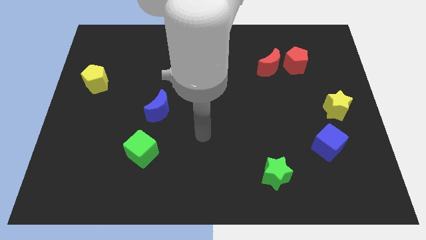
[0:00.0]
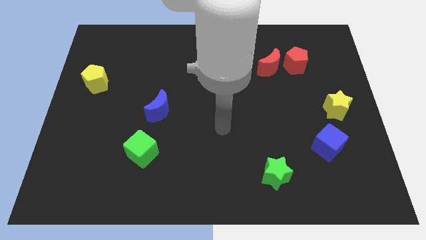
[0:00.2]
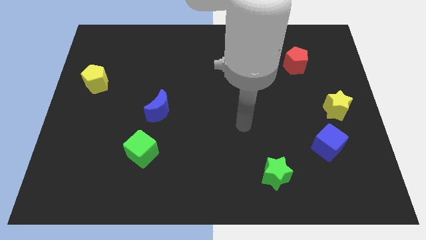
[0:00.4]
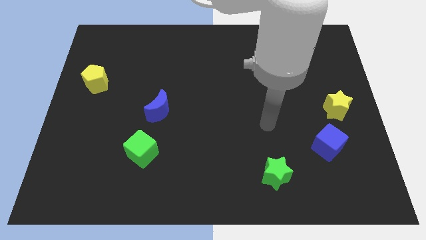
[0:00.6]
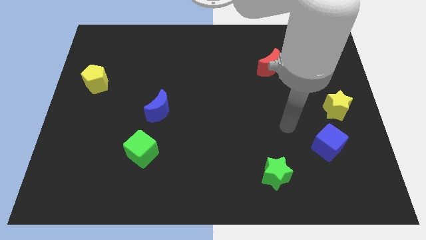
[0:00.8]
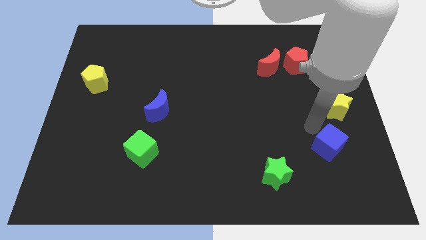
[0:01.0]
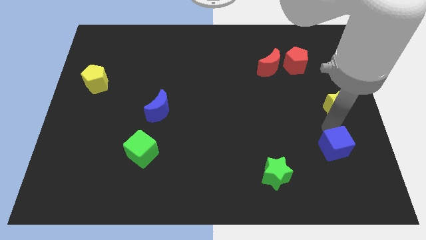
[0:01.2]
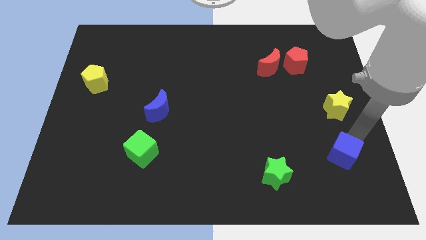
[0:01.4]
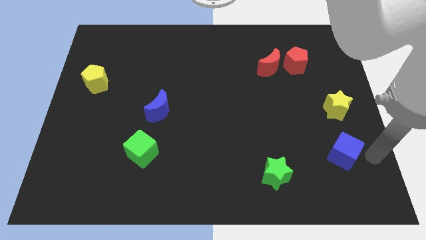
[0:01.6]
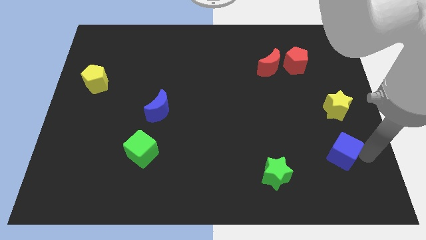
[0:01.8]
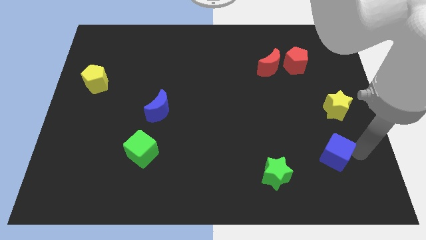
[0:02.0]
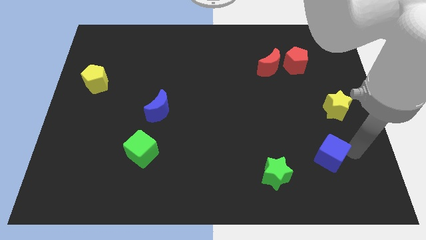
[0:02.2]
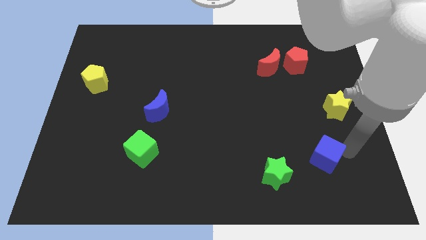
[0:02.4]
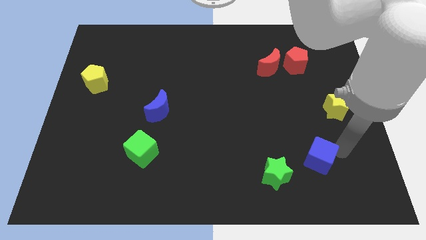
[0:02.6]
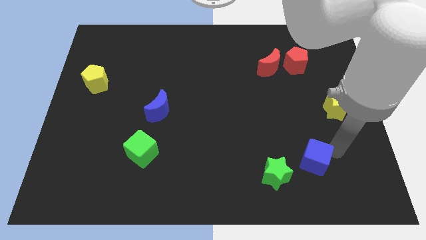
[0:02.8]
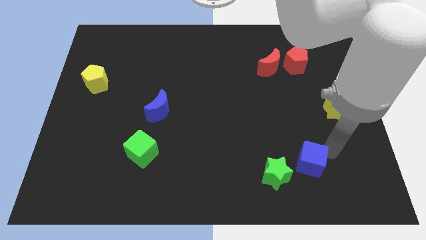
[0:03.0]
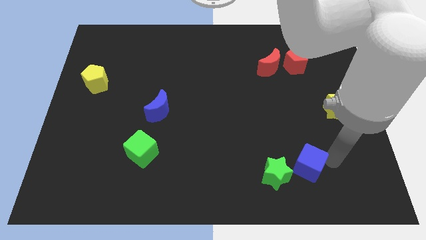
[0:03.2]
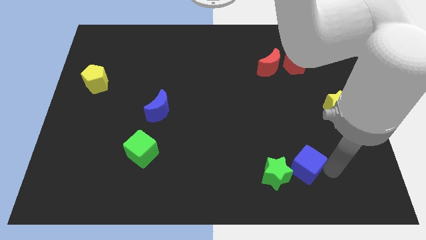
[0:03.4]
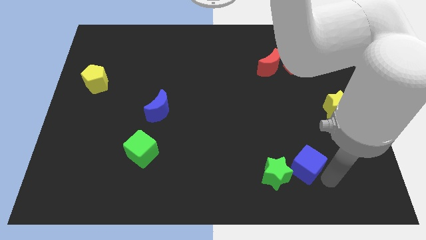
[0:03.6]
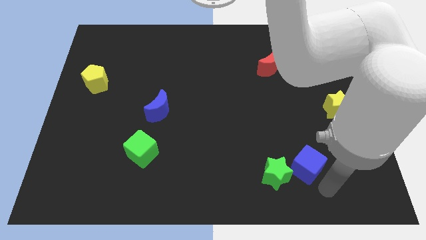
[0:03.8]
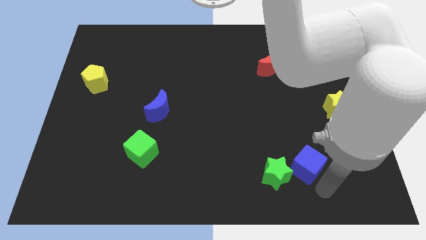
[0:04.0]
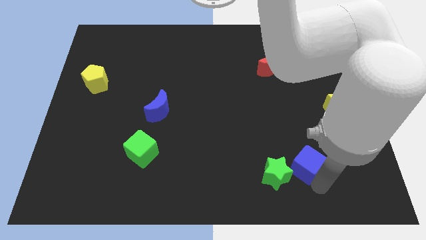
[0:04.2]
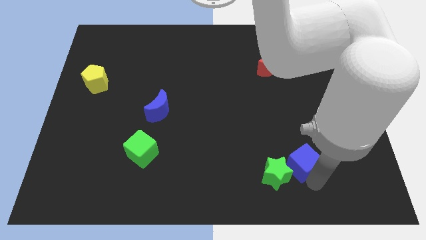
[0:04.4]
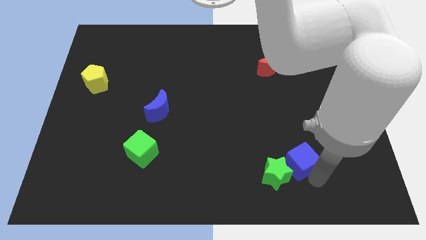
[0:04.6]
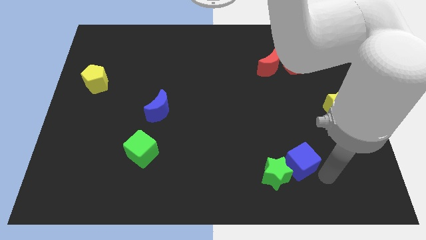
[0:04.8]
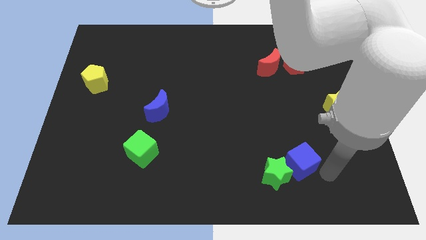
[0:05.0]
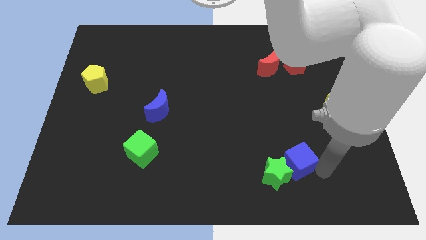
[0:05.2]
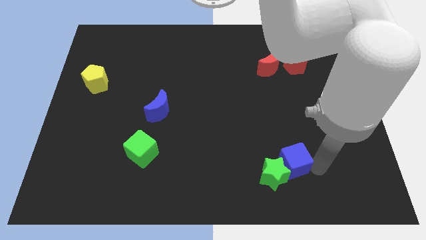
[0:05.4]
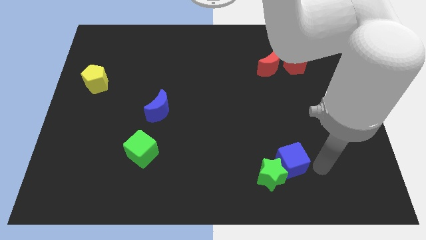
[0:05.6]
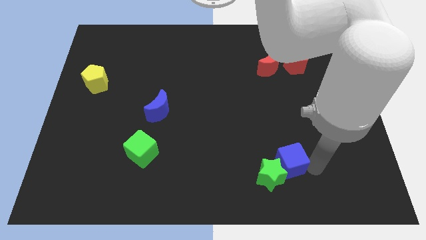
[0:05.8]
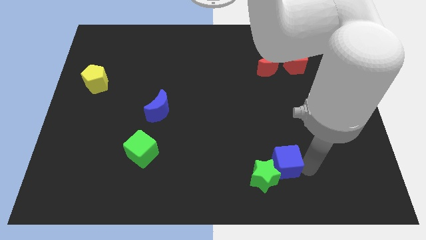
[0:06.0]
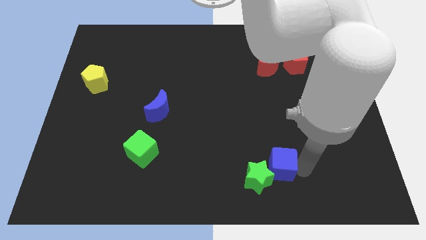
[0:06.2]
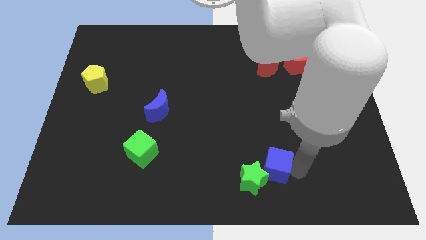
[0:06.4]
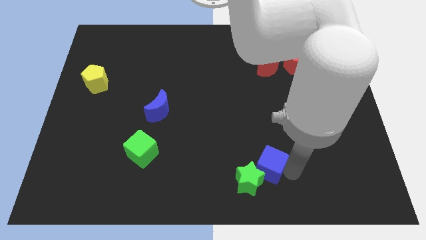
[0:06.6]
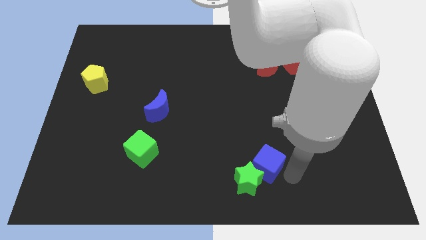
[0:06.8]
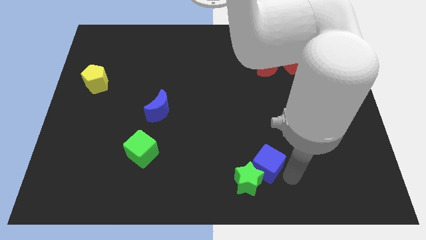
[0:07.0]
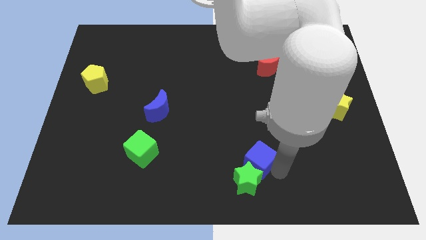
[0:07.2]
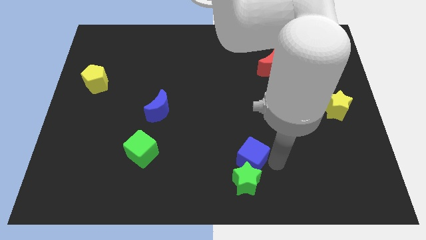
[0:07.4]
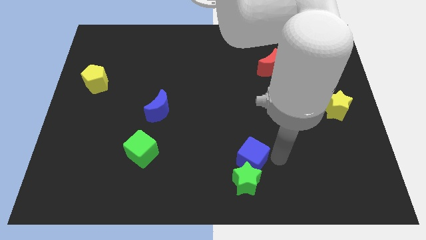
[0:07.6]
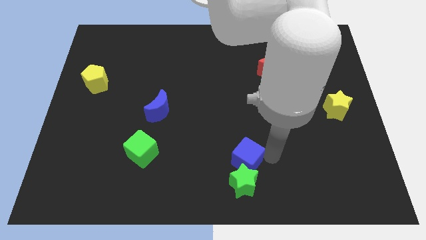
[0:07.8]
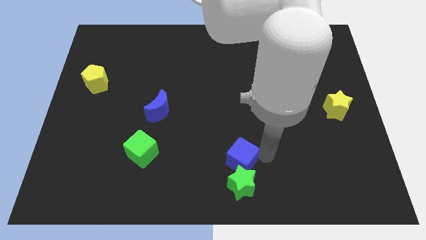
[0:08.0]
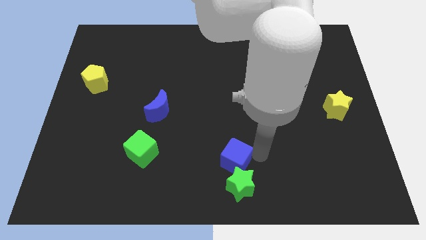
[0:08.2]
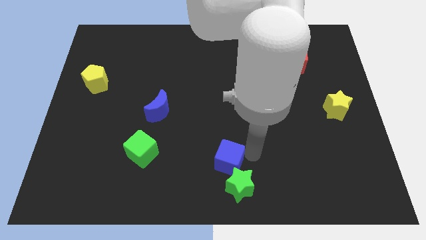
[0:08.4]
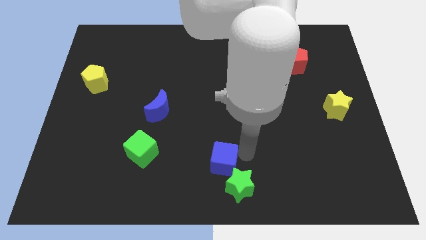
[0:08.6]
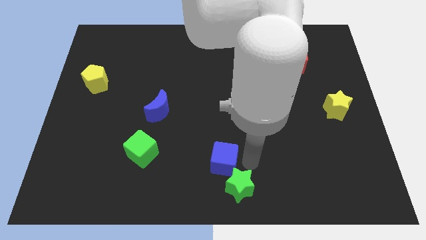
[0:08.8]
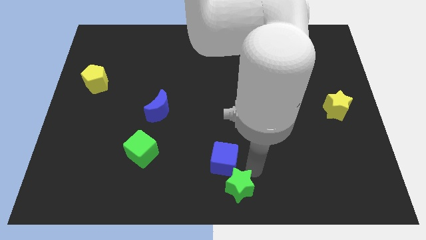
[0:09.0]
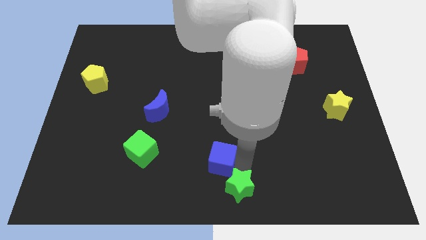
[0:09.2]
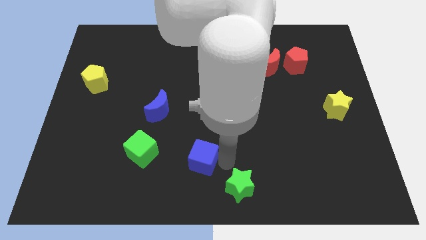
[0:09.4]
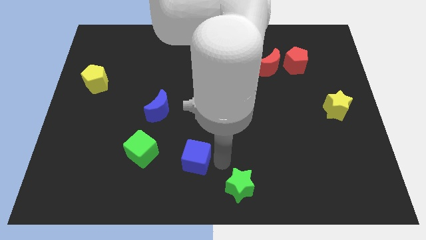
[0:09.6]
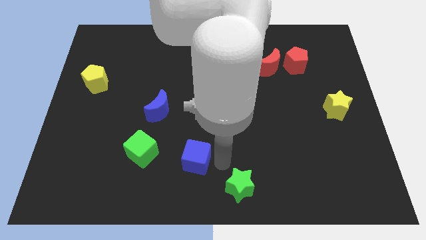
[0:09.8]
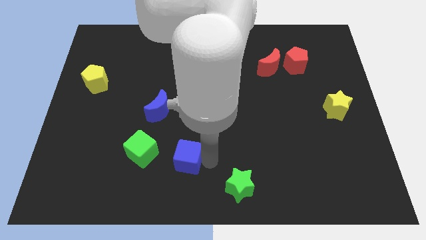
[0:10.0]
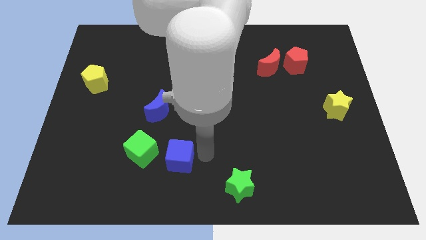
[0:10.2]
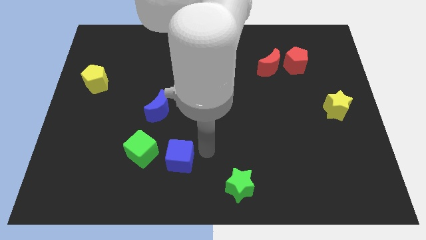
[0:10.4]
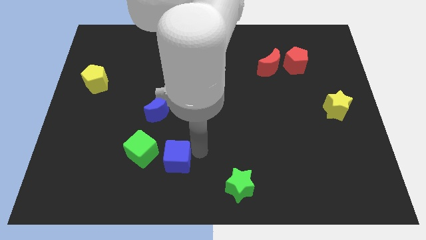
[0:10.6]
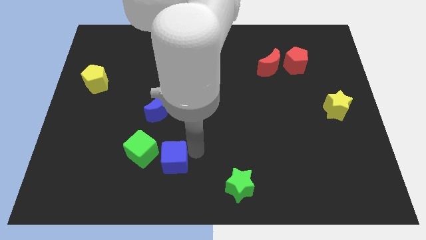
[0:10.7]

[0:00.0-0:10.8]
push the blue cube to the bottom of the blue moon

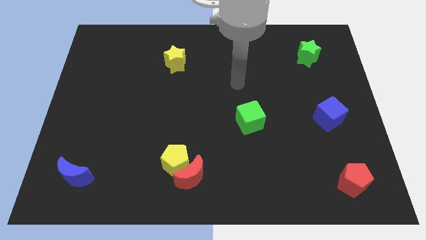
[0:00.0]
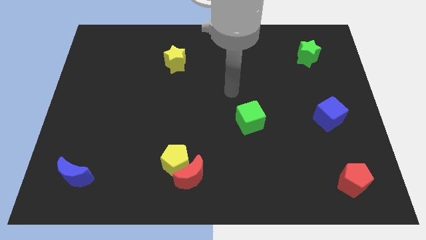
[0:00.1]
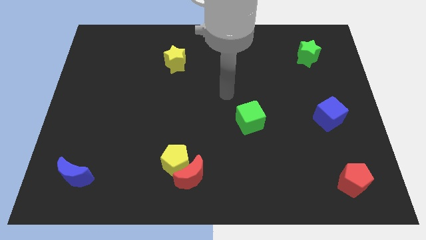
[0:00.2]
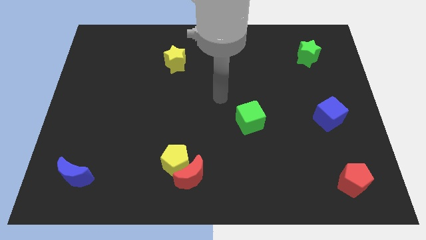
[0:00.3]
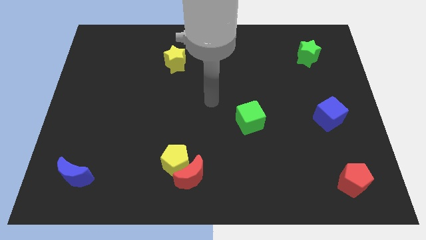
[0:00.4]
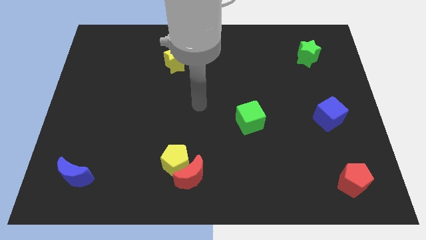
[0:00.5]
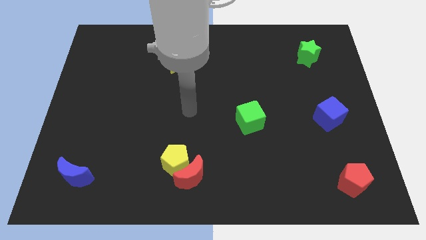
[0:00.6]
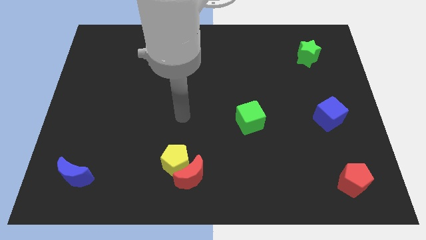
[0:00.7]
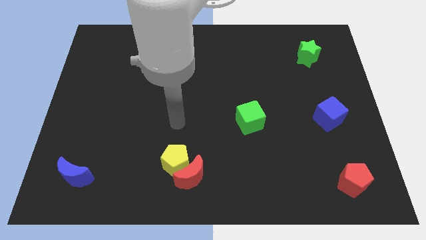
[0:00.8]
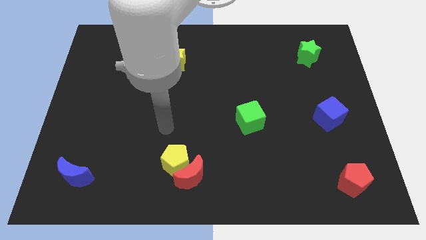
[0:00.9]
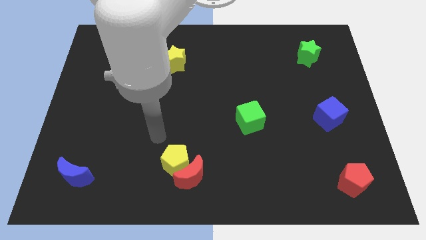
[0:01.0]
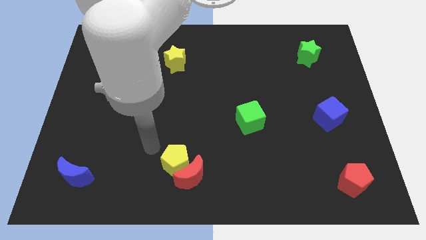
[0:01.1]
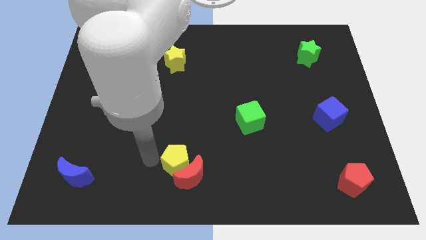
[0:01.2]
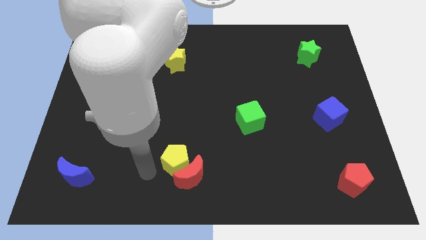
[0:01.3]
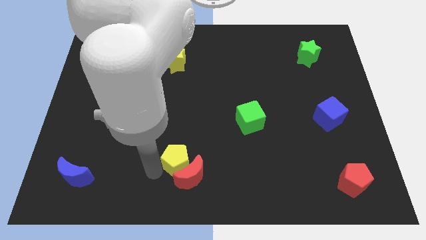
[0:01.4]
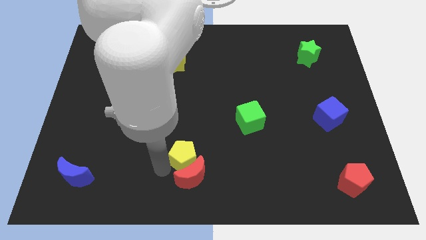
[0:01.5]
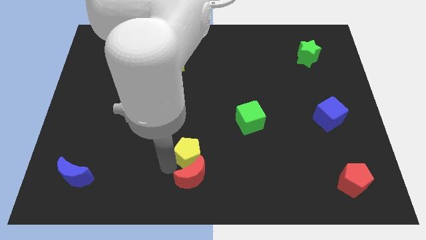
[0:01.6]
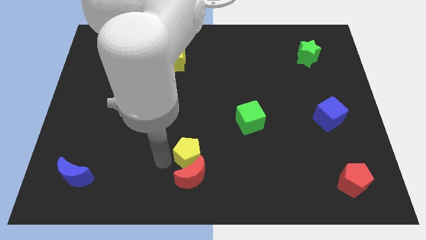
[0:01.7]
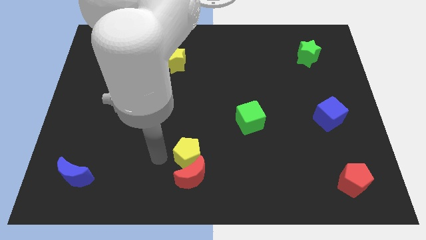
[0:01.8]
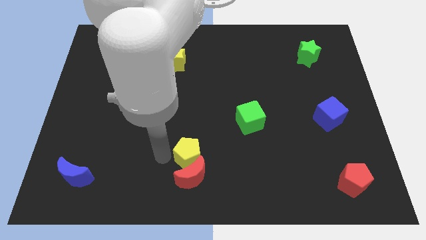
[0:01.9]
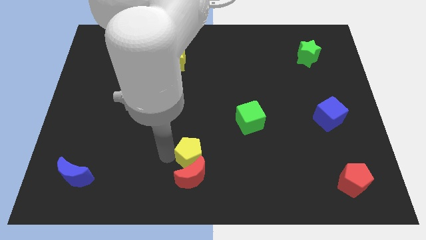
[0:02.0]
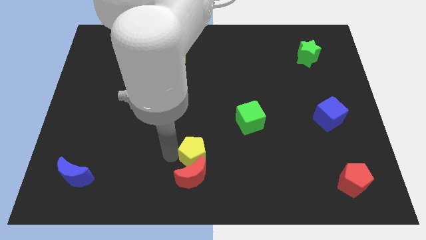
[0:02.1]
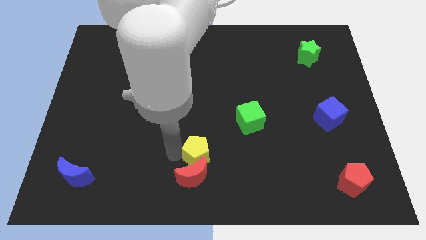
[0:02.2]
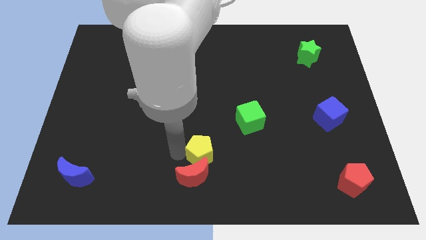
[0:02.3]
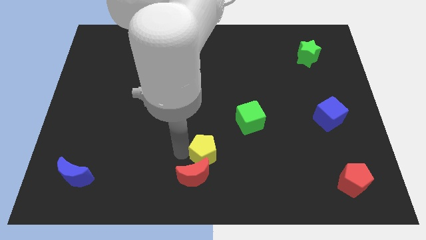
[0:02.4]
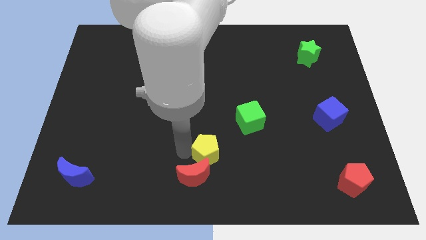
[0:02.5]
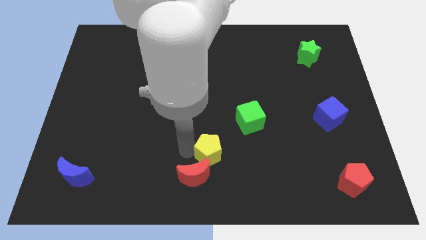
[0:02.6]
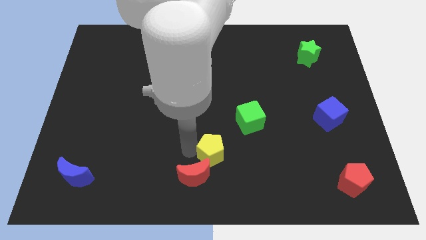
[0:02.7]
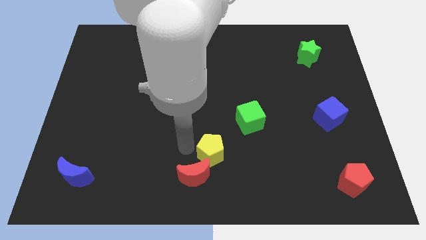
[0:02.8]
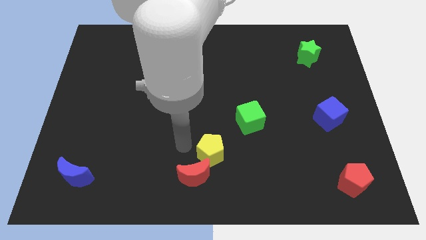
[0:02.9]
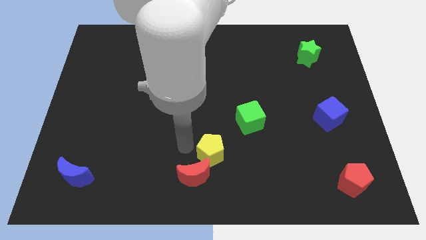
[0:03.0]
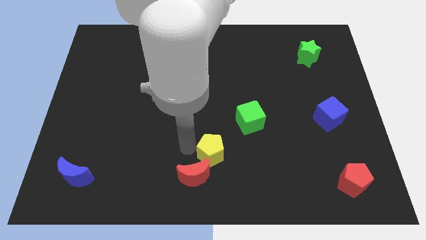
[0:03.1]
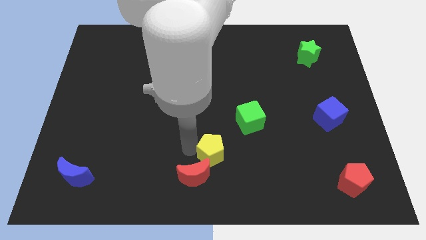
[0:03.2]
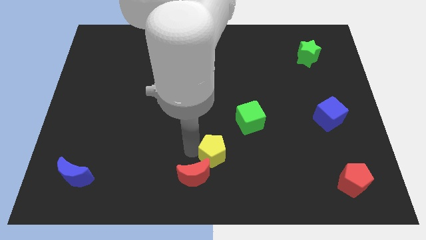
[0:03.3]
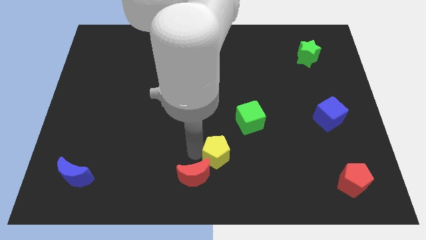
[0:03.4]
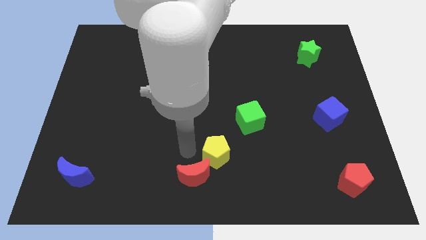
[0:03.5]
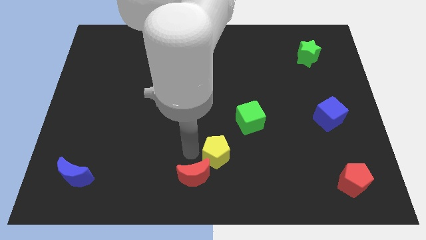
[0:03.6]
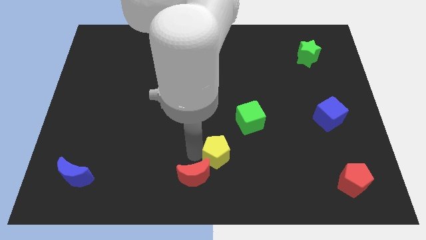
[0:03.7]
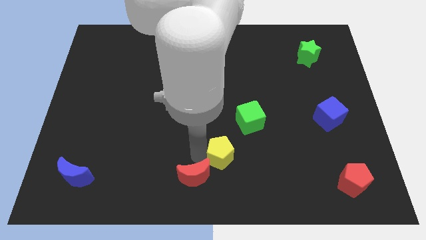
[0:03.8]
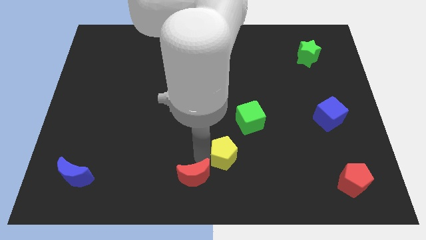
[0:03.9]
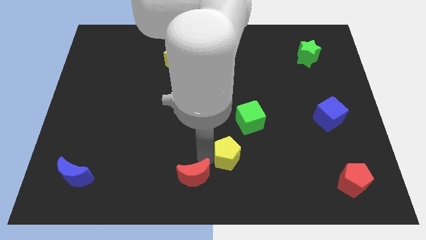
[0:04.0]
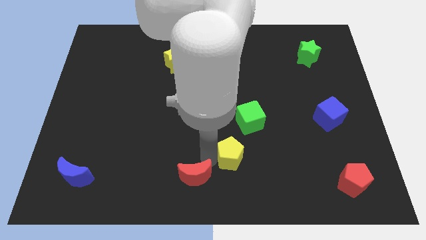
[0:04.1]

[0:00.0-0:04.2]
push the yellow pentagon to the bottom of the green cube
